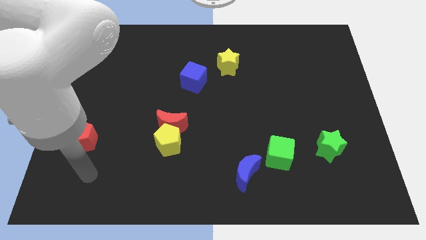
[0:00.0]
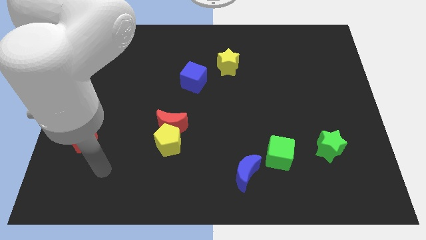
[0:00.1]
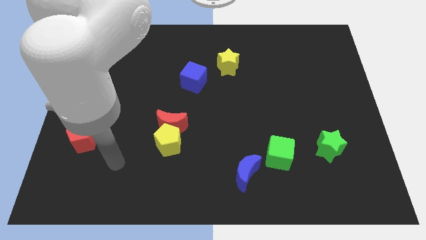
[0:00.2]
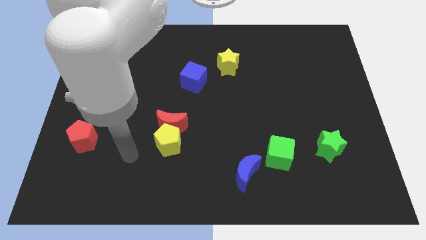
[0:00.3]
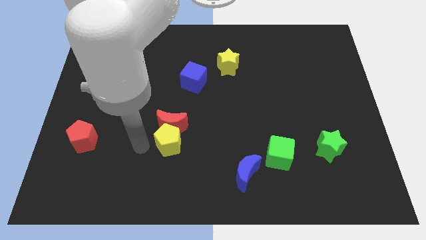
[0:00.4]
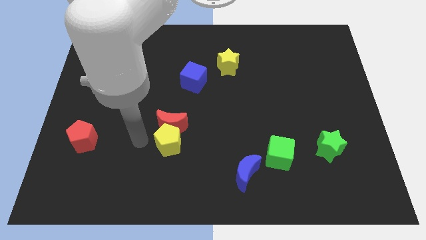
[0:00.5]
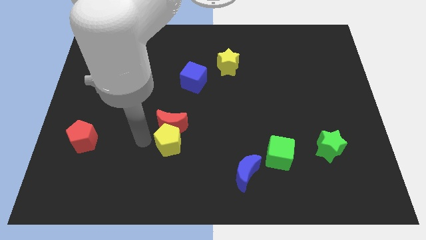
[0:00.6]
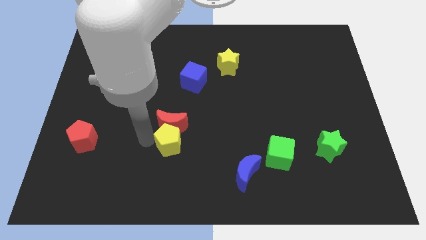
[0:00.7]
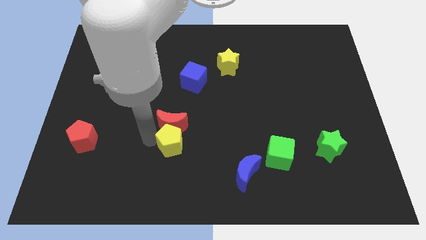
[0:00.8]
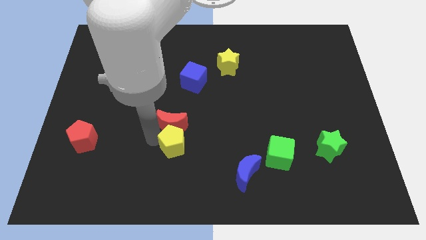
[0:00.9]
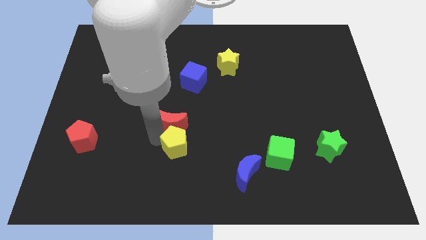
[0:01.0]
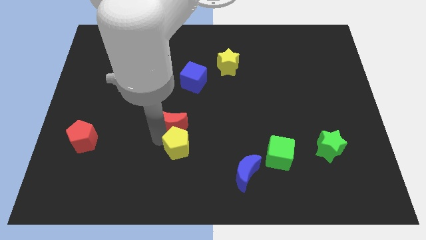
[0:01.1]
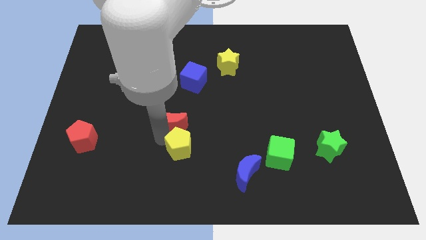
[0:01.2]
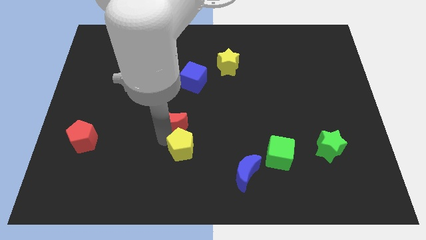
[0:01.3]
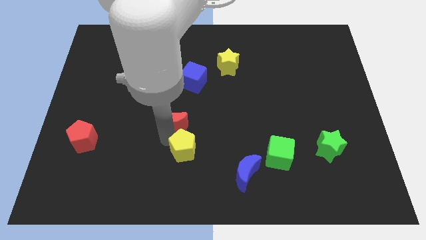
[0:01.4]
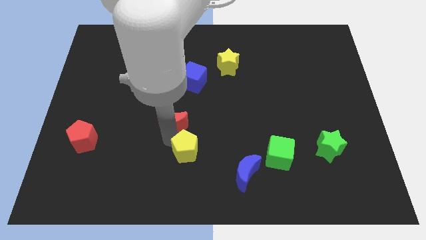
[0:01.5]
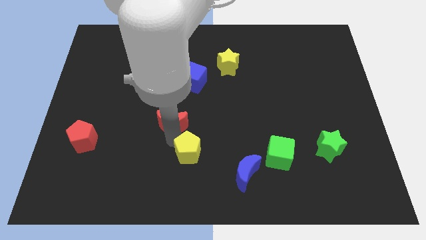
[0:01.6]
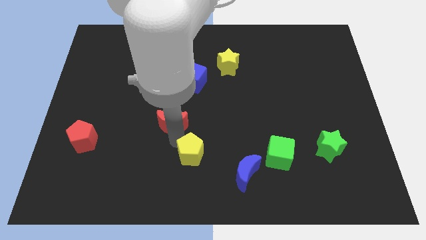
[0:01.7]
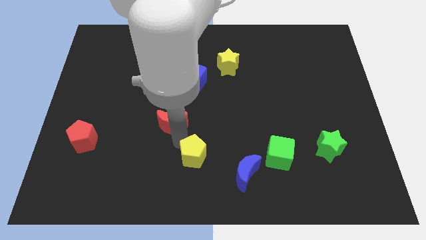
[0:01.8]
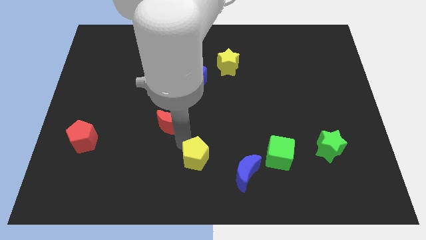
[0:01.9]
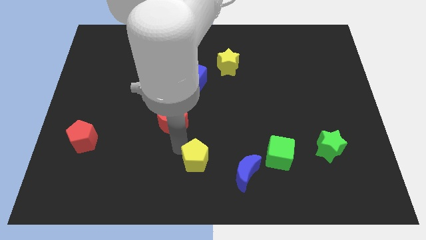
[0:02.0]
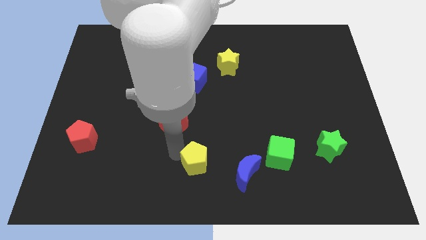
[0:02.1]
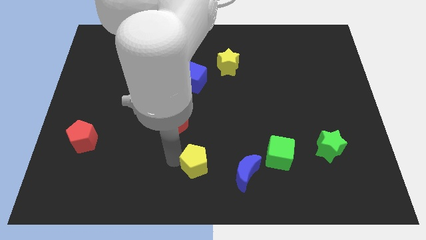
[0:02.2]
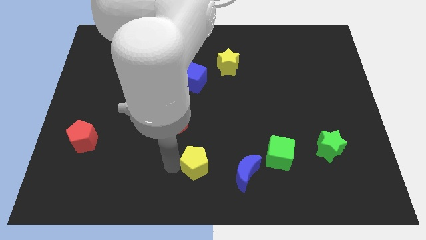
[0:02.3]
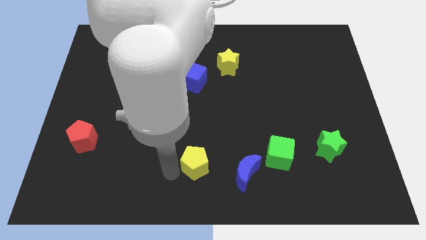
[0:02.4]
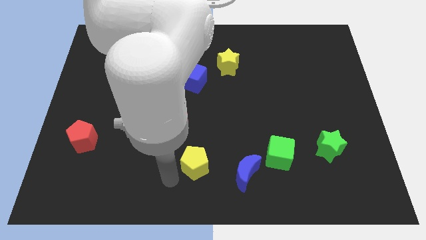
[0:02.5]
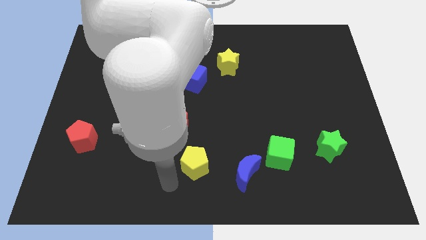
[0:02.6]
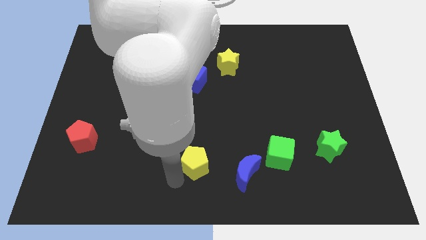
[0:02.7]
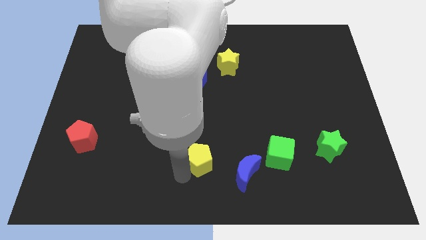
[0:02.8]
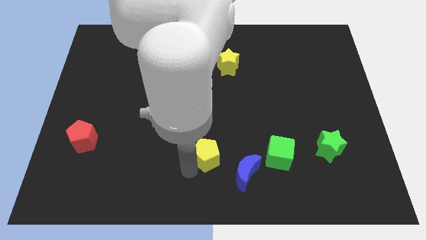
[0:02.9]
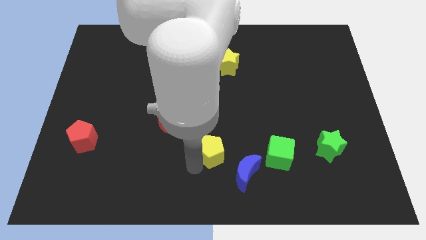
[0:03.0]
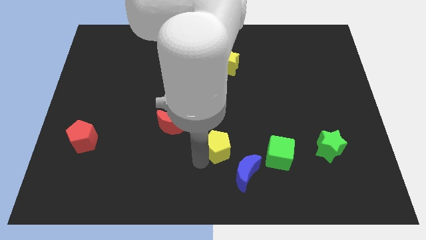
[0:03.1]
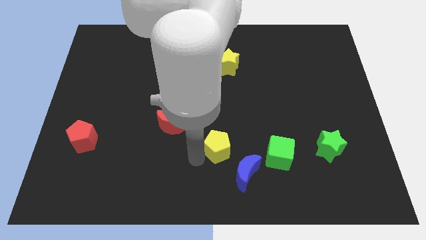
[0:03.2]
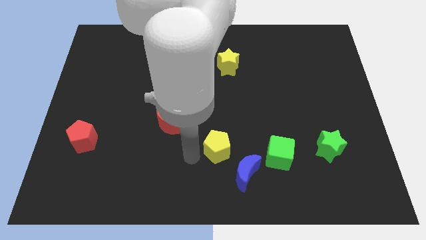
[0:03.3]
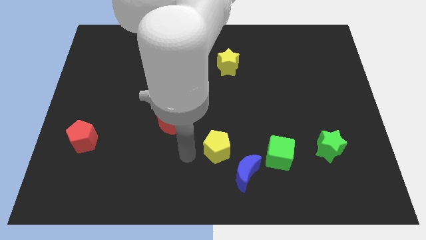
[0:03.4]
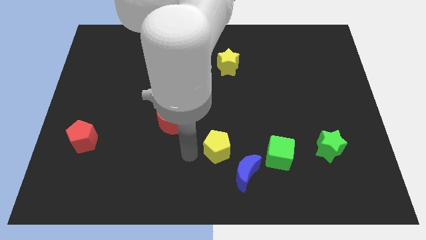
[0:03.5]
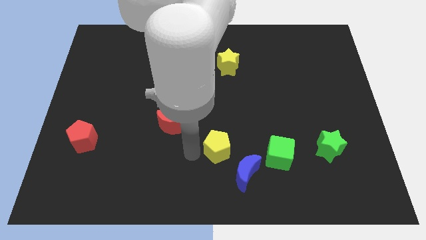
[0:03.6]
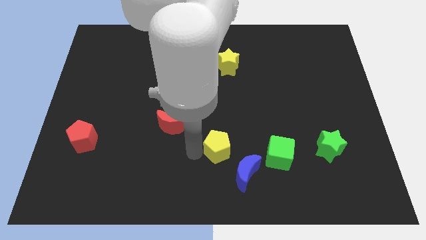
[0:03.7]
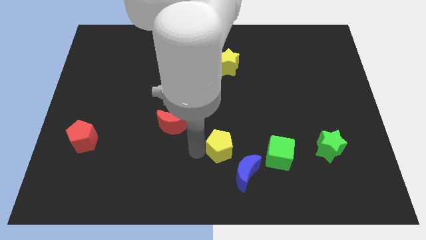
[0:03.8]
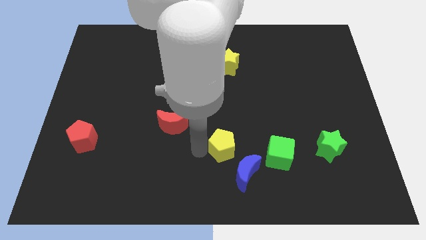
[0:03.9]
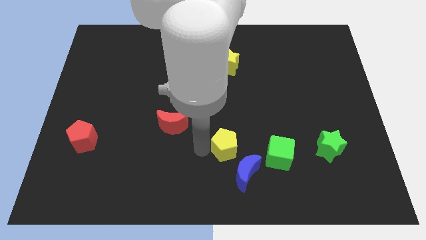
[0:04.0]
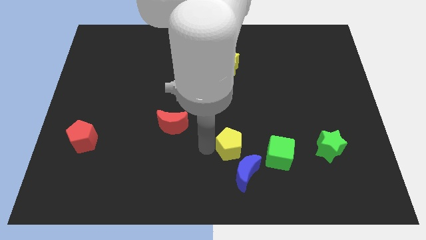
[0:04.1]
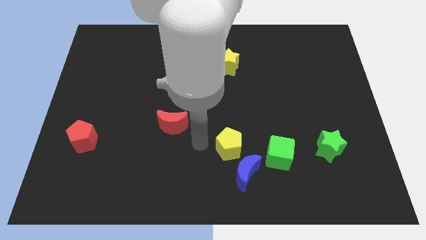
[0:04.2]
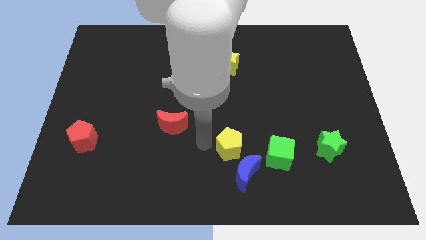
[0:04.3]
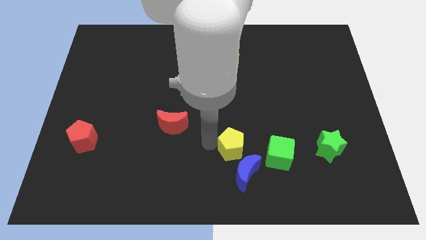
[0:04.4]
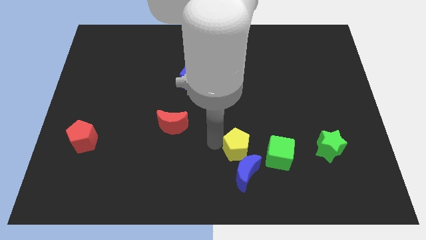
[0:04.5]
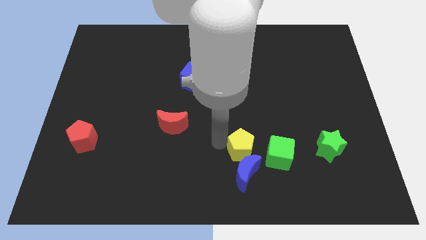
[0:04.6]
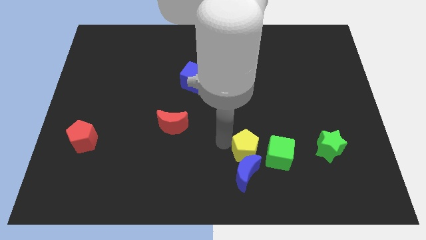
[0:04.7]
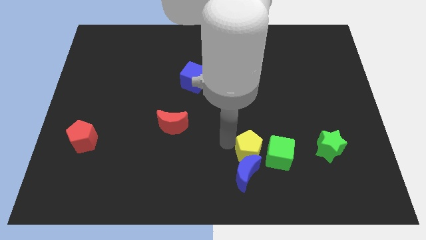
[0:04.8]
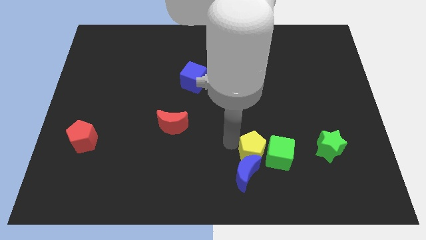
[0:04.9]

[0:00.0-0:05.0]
slide the yellow pentagon towards the green cube

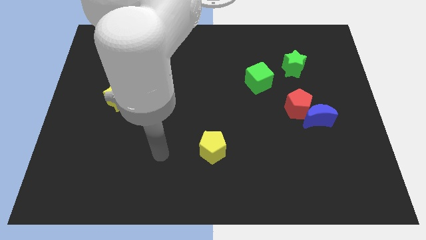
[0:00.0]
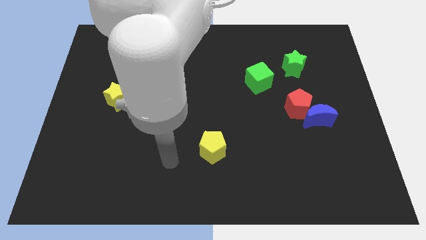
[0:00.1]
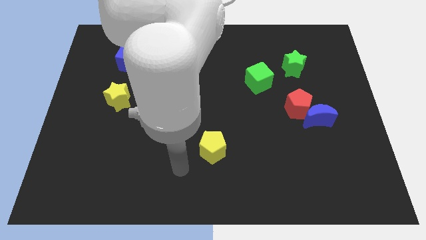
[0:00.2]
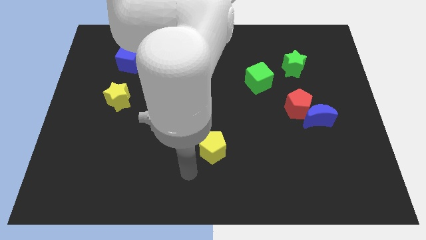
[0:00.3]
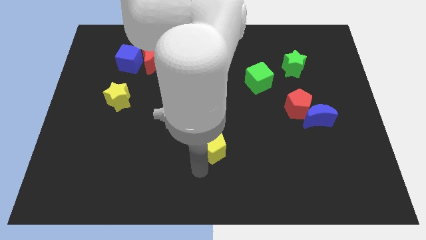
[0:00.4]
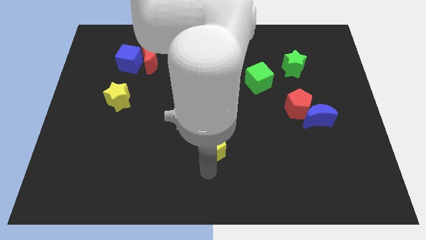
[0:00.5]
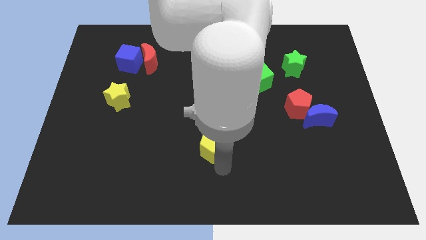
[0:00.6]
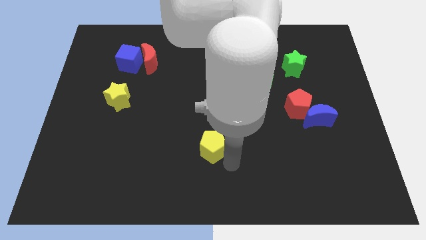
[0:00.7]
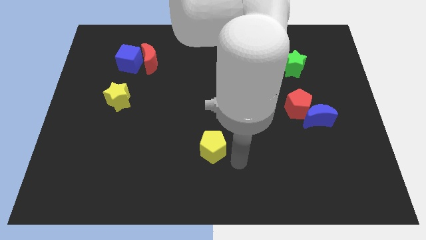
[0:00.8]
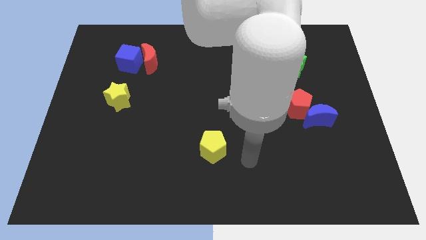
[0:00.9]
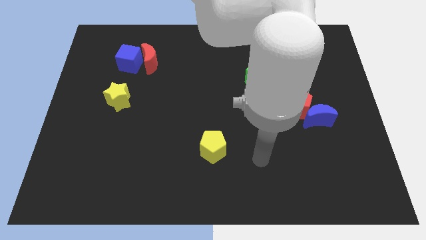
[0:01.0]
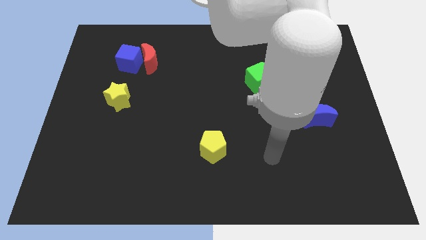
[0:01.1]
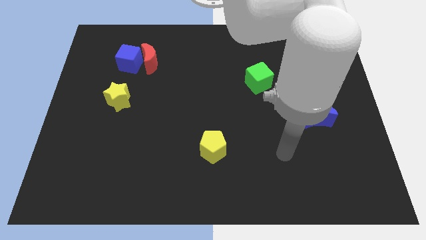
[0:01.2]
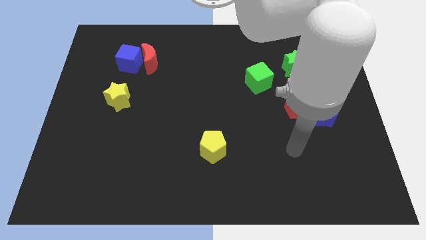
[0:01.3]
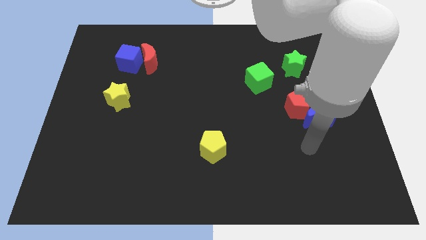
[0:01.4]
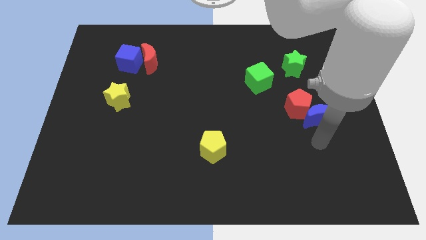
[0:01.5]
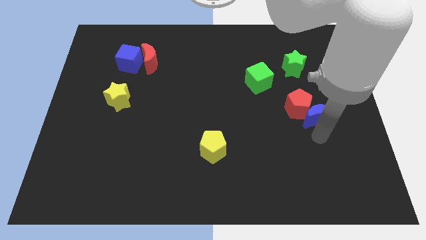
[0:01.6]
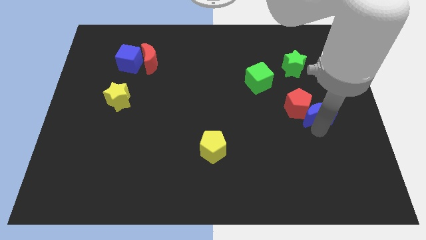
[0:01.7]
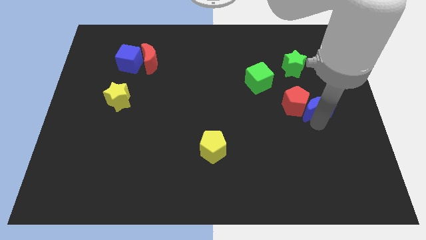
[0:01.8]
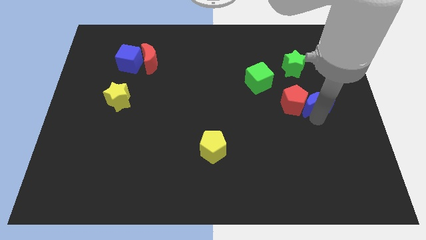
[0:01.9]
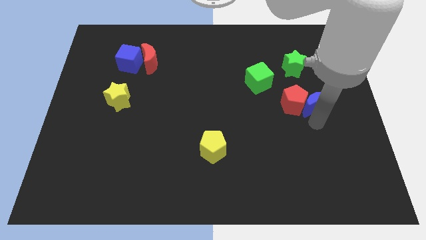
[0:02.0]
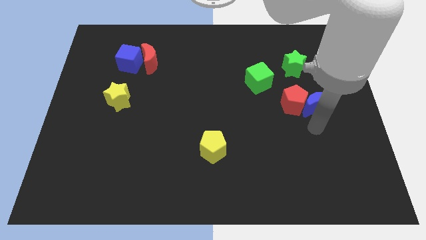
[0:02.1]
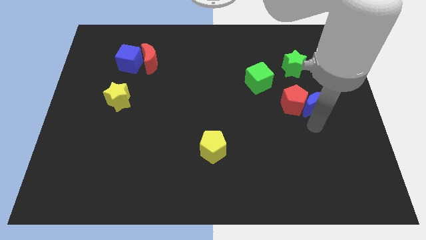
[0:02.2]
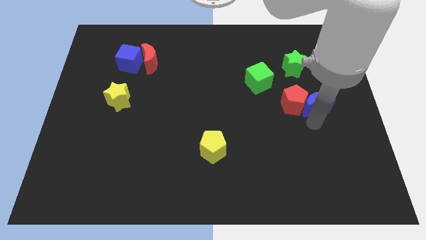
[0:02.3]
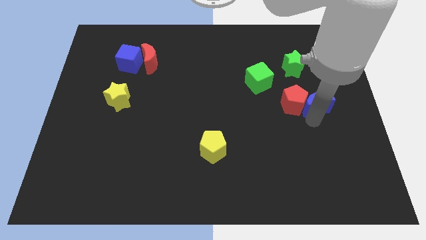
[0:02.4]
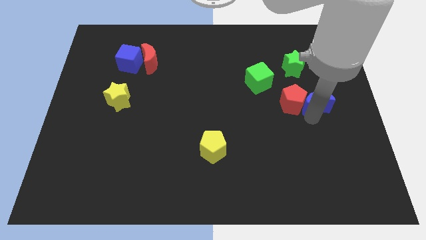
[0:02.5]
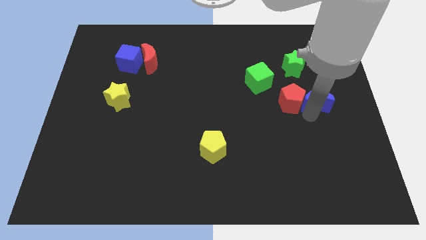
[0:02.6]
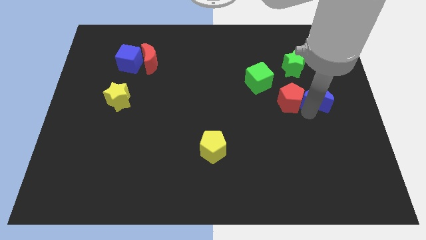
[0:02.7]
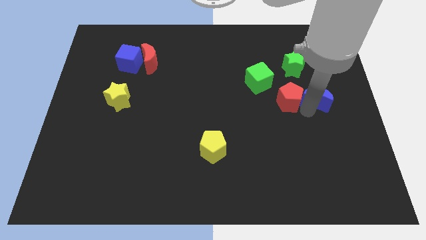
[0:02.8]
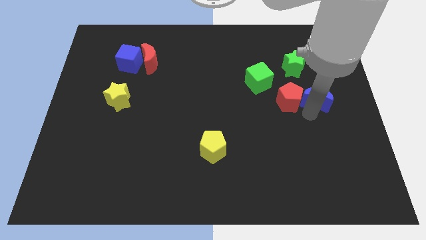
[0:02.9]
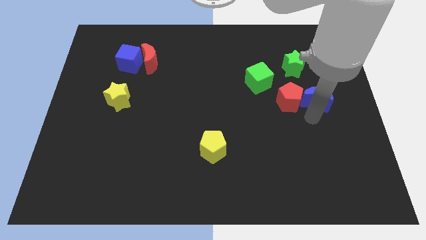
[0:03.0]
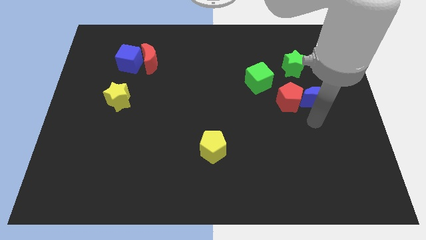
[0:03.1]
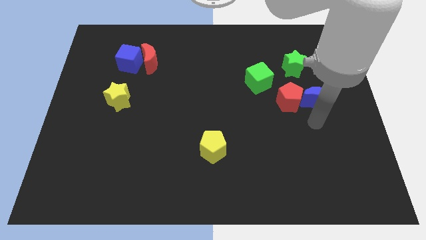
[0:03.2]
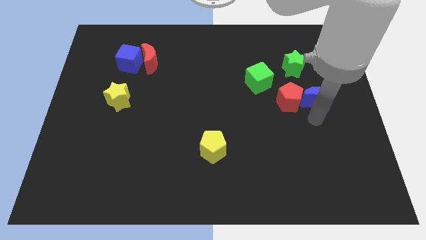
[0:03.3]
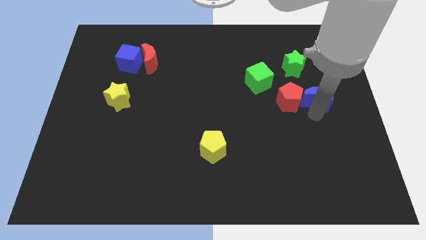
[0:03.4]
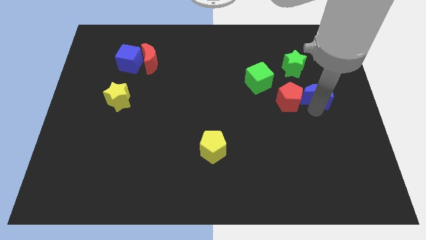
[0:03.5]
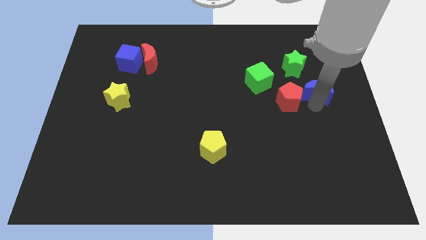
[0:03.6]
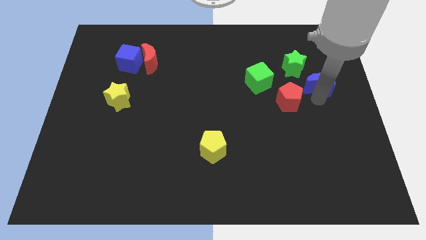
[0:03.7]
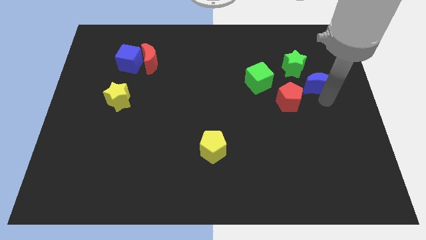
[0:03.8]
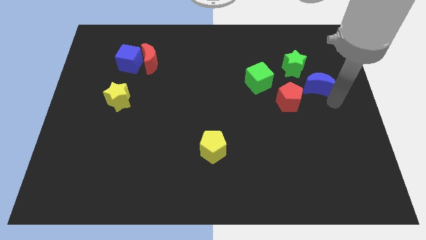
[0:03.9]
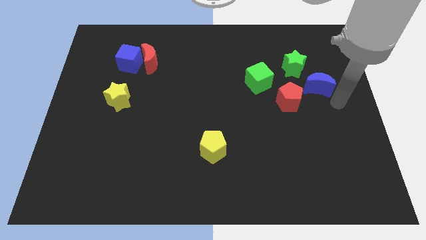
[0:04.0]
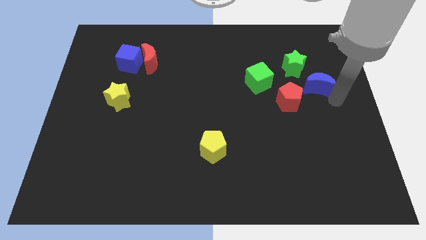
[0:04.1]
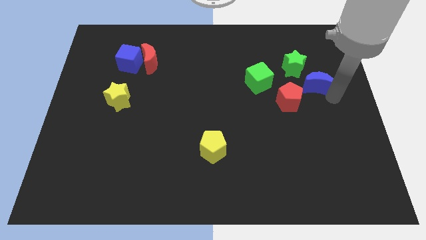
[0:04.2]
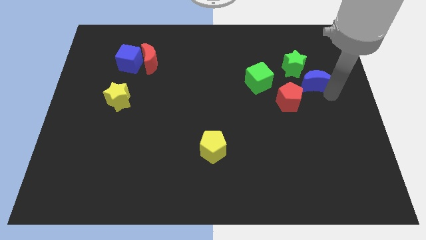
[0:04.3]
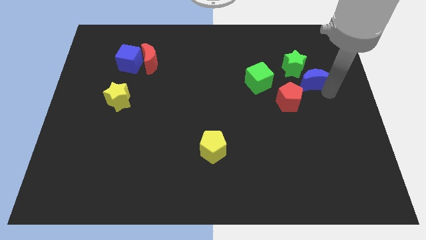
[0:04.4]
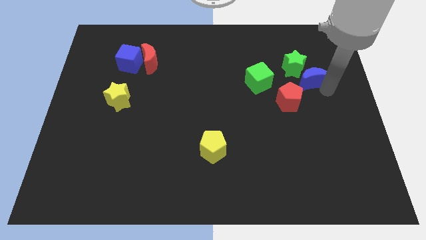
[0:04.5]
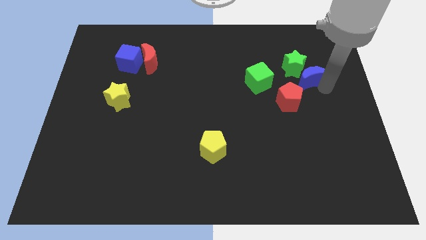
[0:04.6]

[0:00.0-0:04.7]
put the blue moon close to the green star
